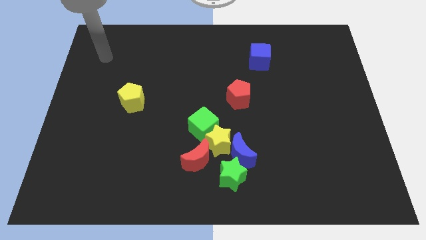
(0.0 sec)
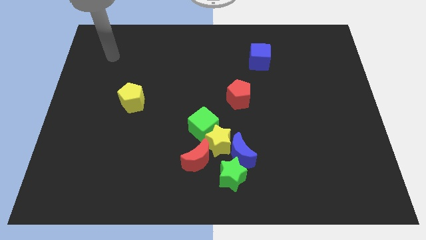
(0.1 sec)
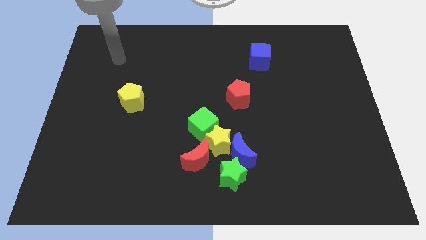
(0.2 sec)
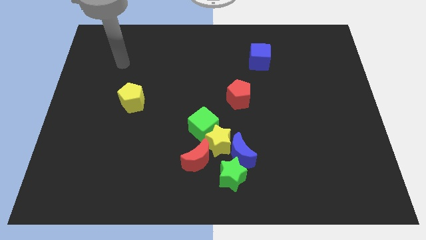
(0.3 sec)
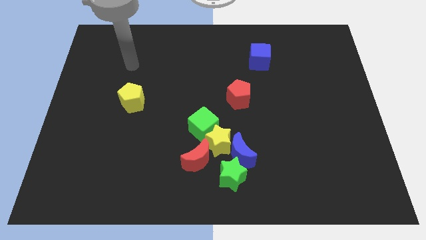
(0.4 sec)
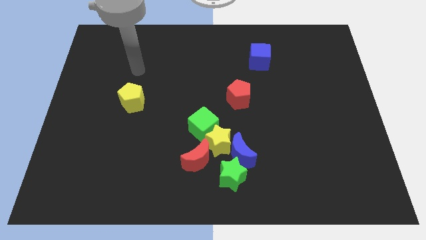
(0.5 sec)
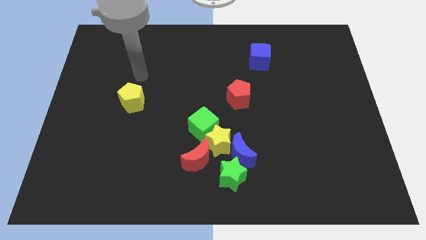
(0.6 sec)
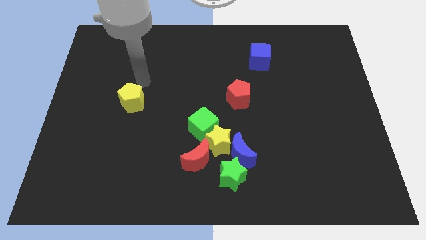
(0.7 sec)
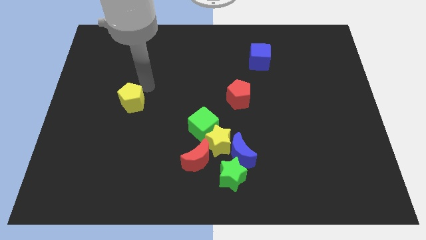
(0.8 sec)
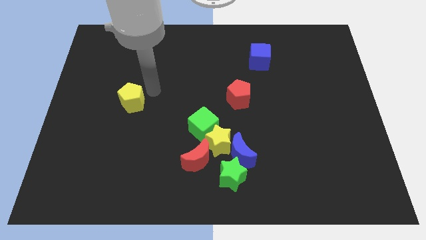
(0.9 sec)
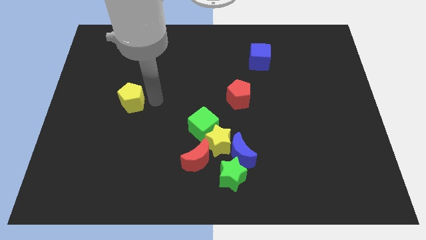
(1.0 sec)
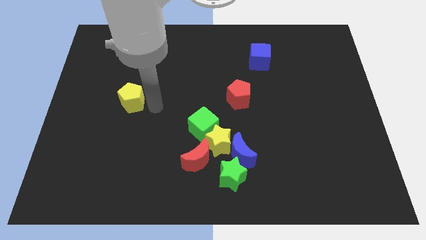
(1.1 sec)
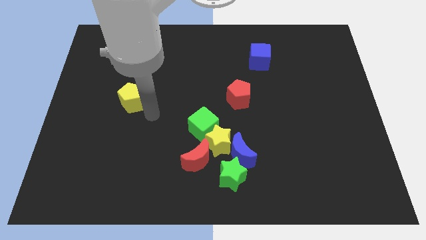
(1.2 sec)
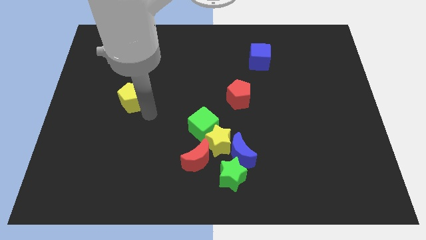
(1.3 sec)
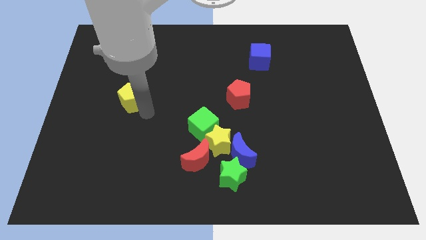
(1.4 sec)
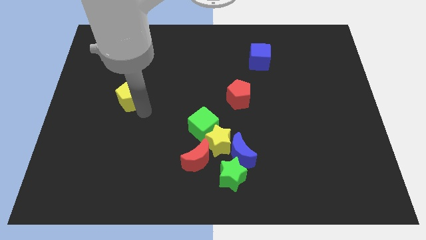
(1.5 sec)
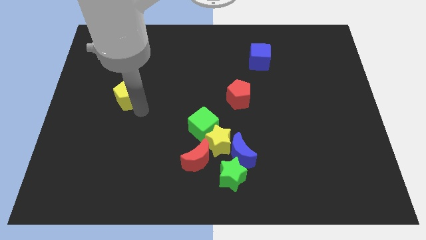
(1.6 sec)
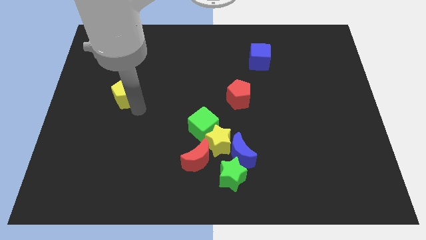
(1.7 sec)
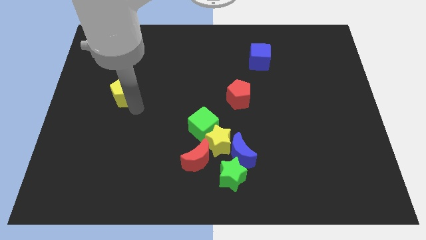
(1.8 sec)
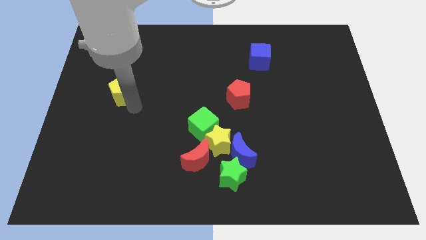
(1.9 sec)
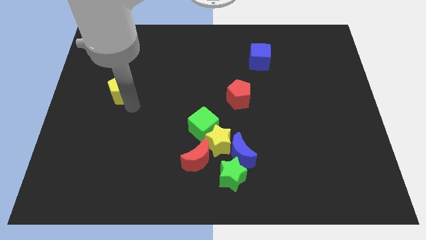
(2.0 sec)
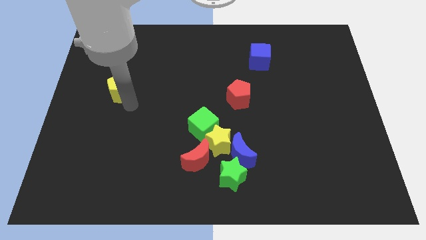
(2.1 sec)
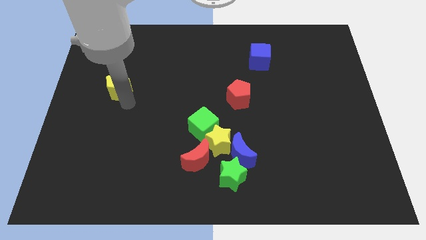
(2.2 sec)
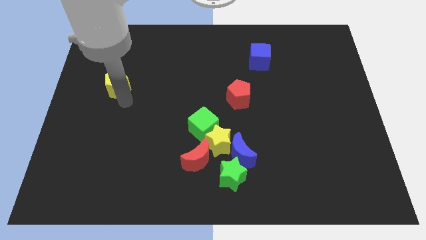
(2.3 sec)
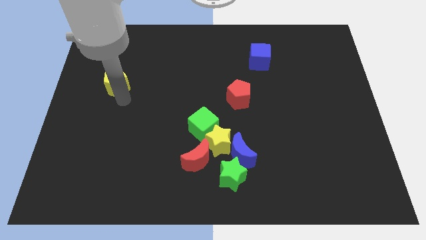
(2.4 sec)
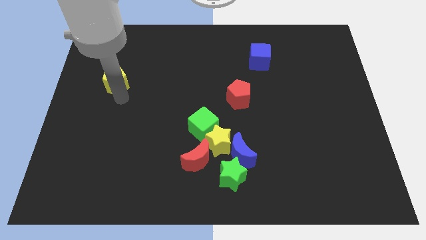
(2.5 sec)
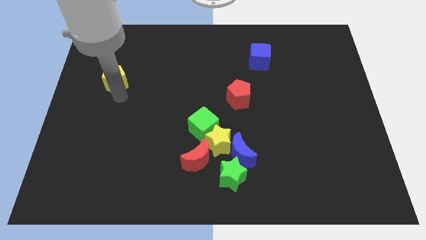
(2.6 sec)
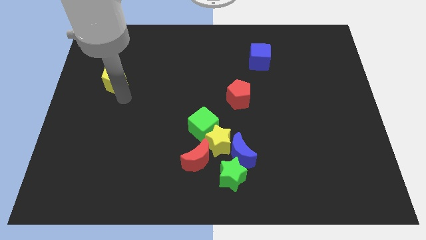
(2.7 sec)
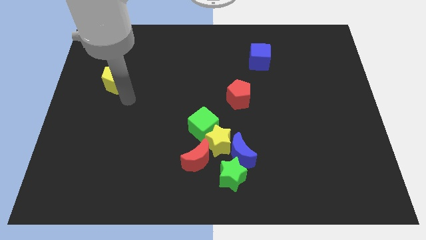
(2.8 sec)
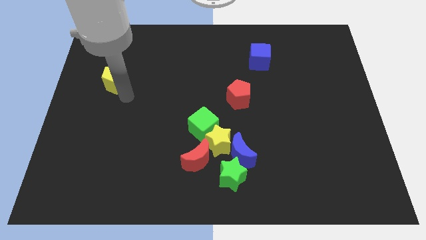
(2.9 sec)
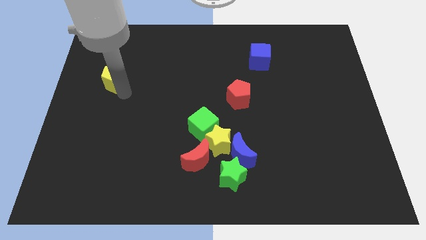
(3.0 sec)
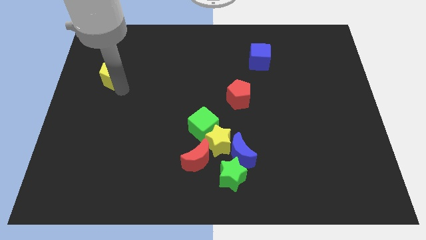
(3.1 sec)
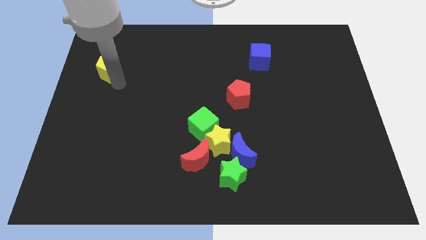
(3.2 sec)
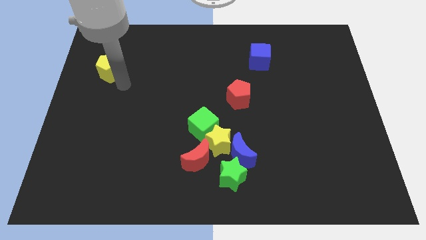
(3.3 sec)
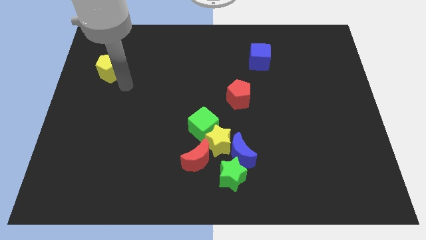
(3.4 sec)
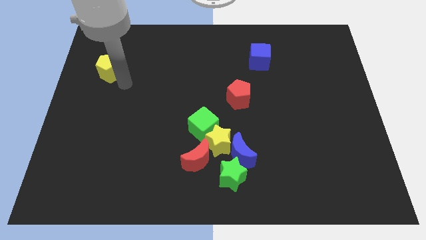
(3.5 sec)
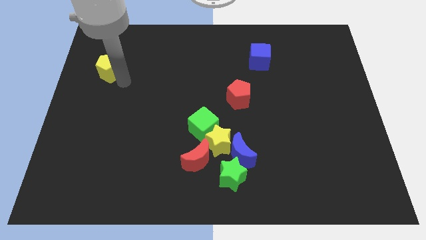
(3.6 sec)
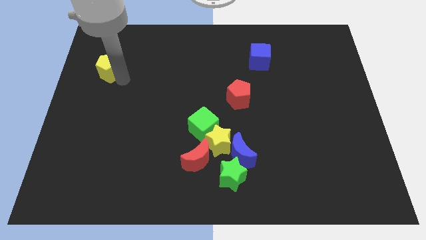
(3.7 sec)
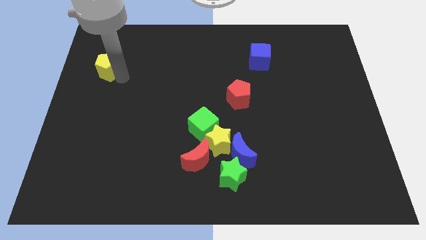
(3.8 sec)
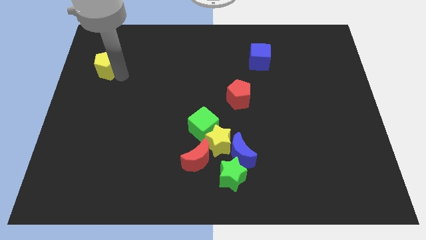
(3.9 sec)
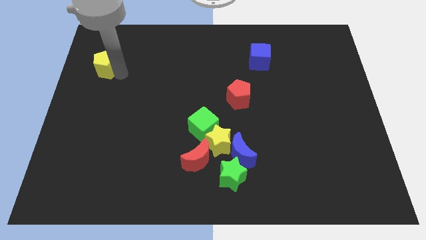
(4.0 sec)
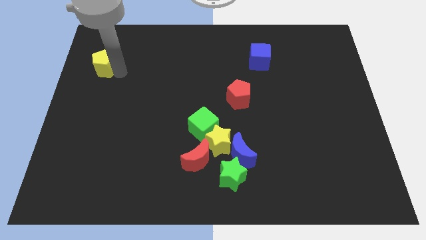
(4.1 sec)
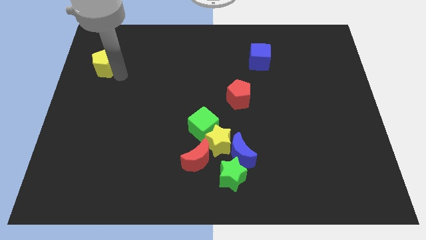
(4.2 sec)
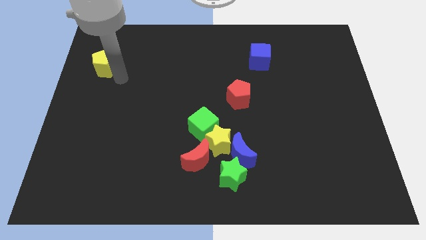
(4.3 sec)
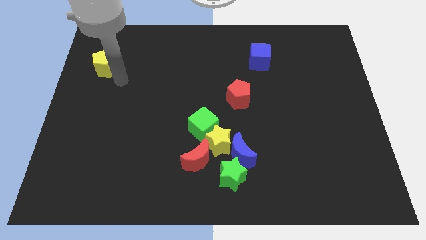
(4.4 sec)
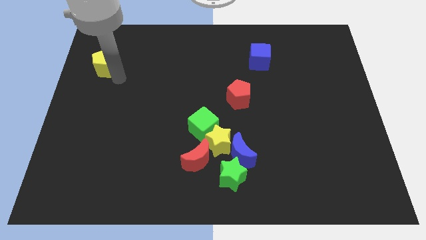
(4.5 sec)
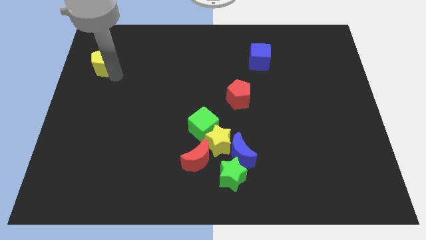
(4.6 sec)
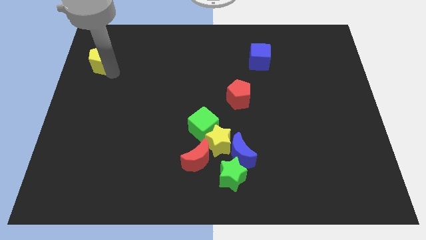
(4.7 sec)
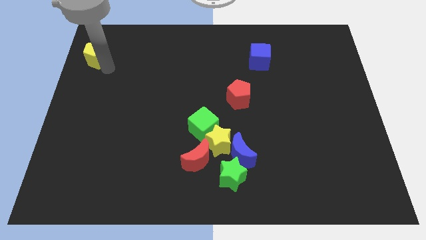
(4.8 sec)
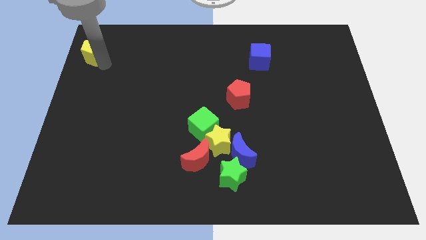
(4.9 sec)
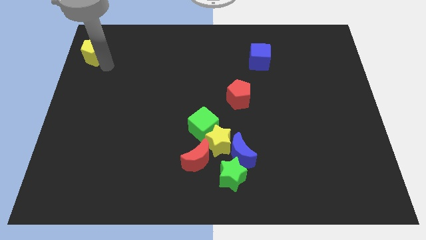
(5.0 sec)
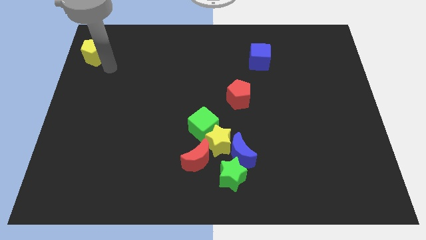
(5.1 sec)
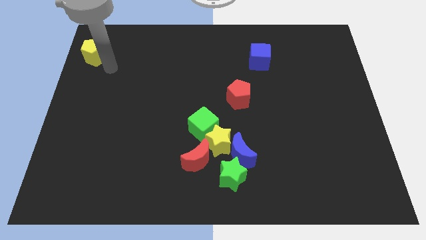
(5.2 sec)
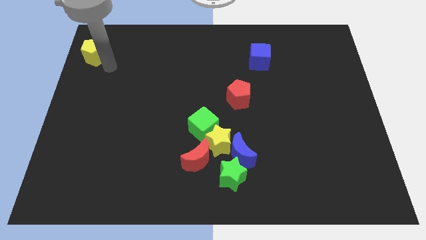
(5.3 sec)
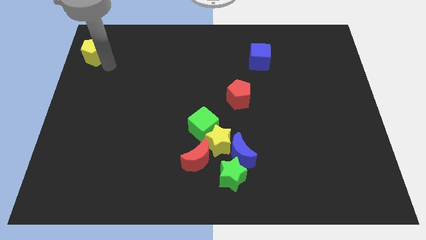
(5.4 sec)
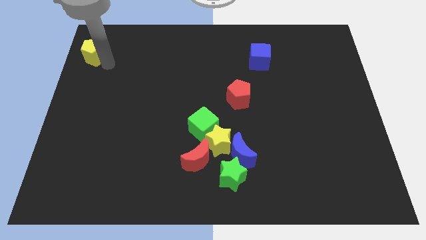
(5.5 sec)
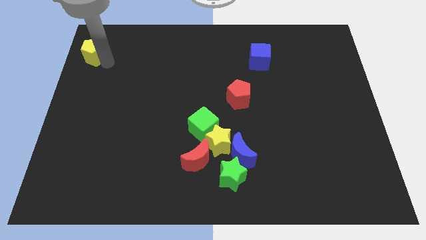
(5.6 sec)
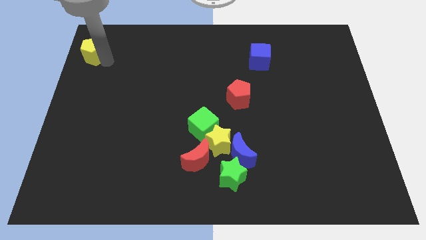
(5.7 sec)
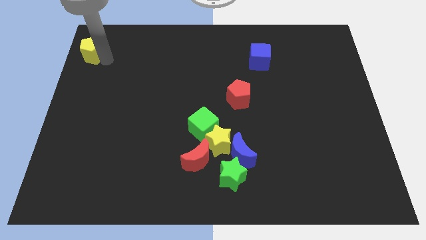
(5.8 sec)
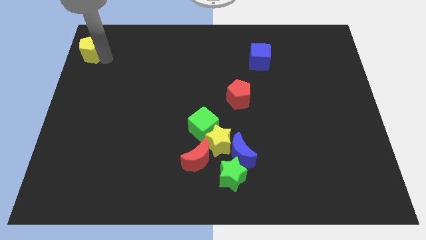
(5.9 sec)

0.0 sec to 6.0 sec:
slide the yellow pentagon to the top left corner

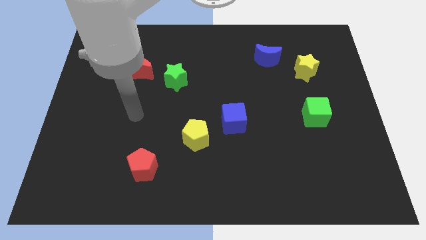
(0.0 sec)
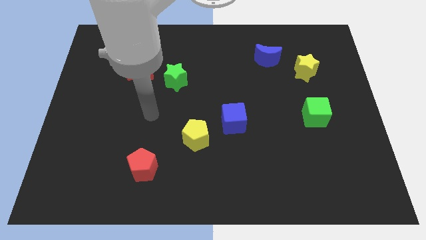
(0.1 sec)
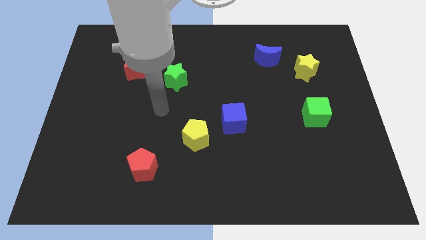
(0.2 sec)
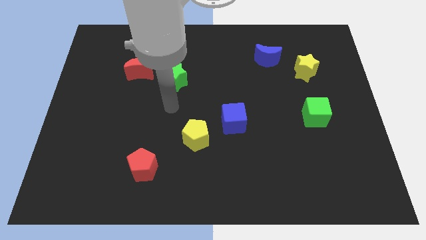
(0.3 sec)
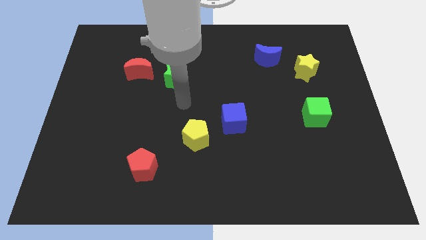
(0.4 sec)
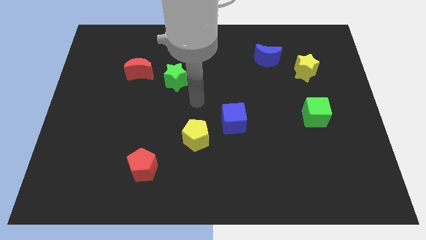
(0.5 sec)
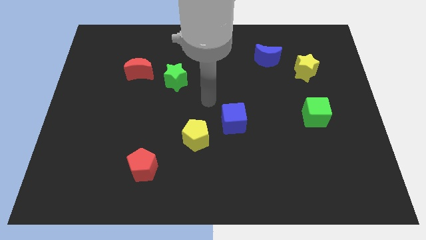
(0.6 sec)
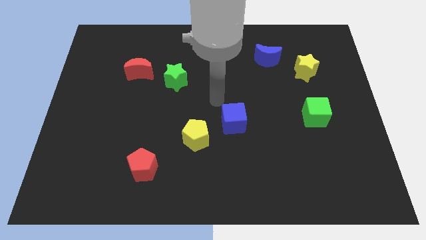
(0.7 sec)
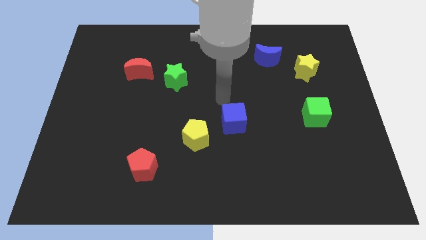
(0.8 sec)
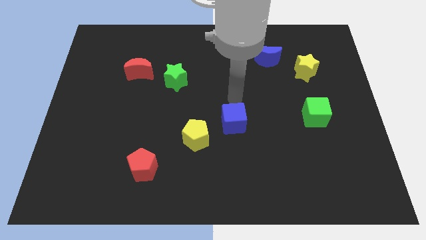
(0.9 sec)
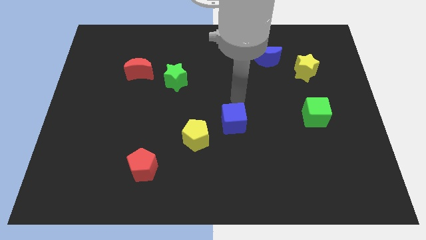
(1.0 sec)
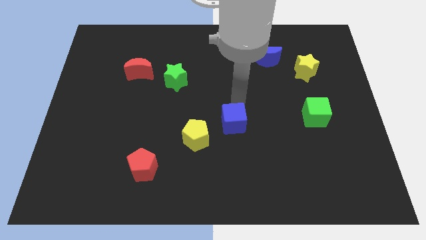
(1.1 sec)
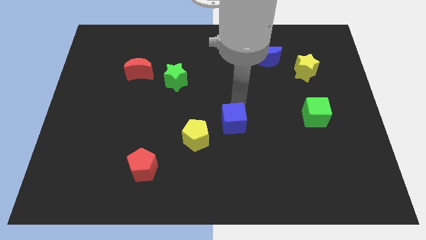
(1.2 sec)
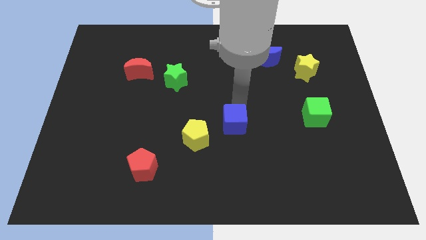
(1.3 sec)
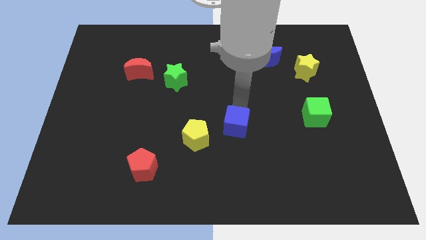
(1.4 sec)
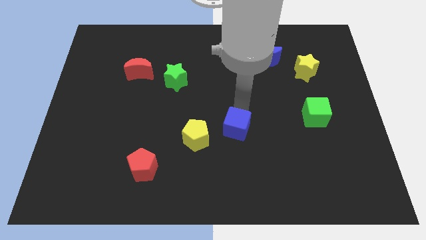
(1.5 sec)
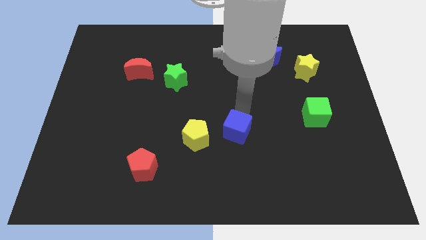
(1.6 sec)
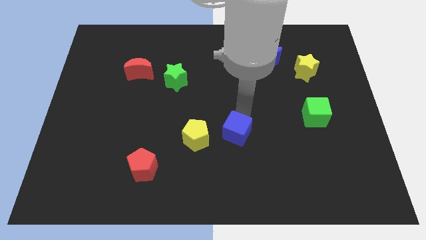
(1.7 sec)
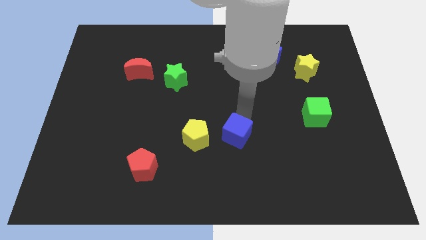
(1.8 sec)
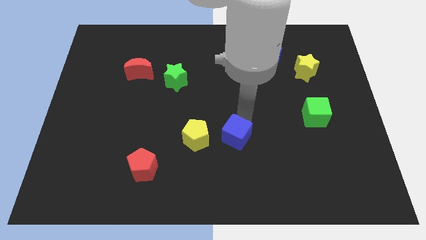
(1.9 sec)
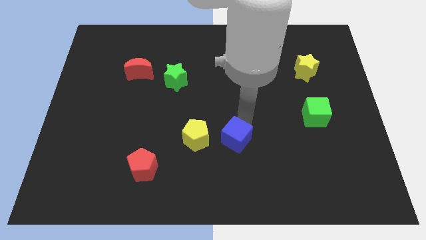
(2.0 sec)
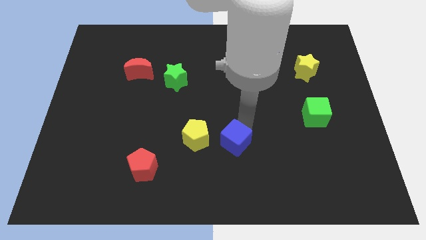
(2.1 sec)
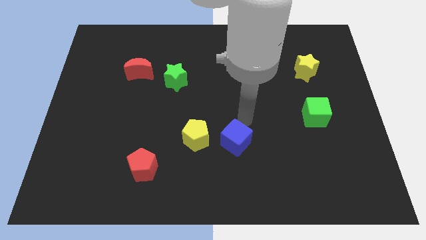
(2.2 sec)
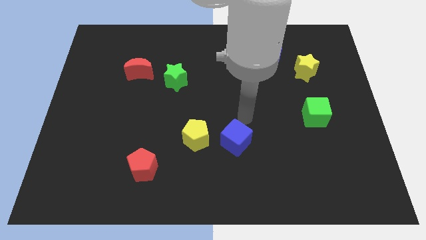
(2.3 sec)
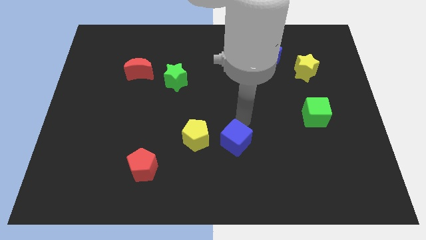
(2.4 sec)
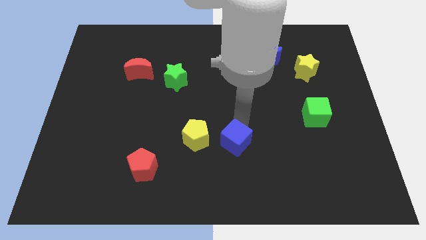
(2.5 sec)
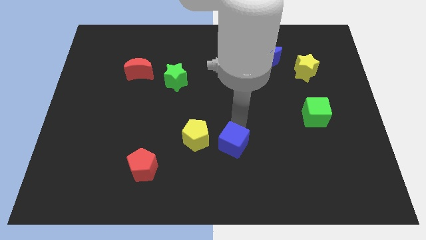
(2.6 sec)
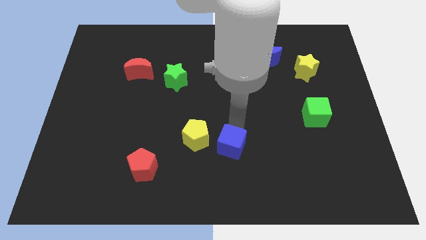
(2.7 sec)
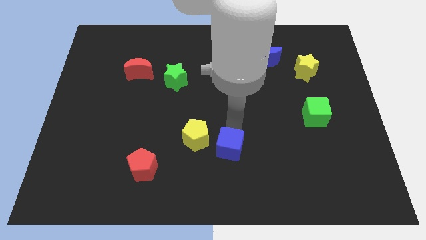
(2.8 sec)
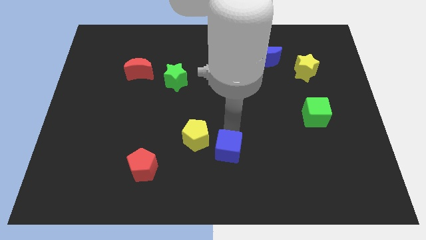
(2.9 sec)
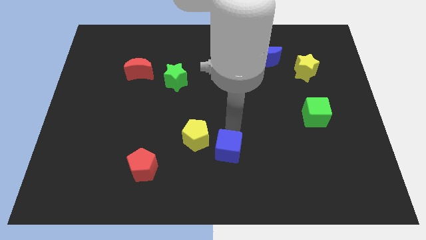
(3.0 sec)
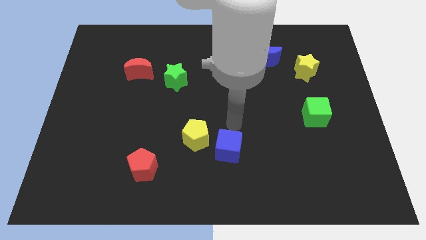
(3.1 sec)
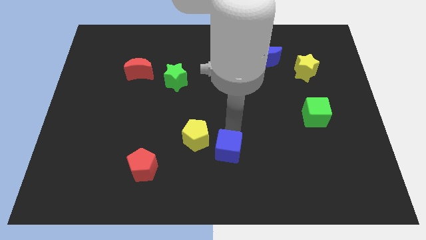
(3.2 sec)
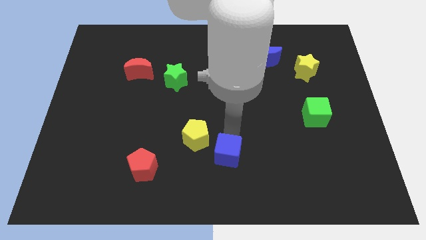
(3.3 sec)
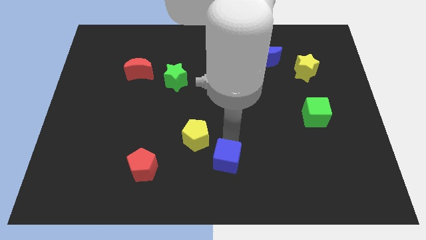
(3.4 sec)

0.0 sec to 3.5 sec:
push the blue cube to the bottom side
